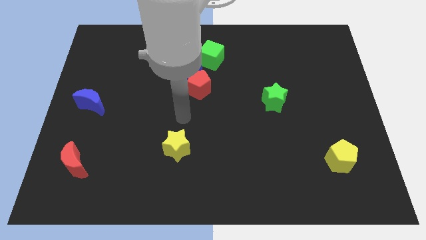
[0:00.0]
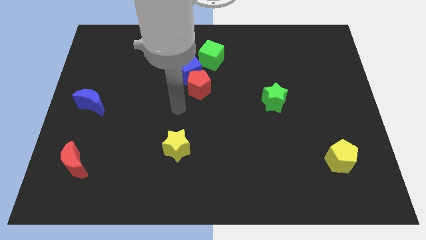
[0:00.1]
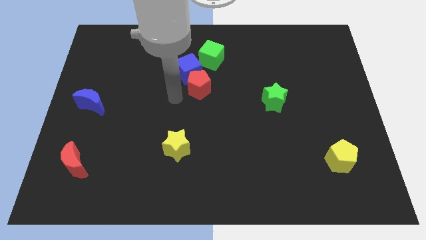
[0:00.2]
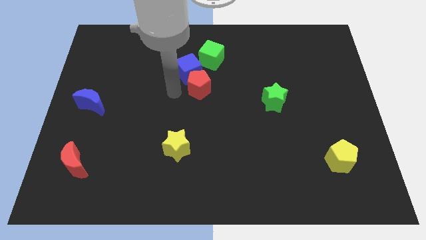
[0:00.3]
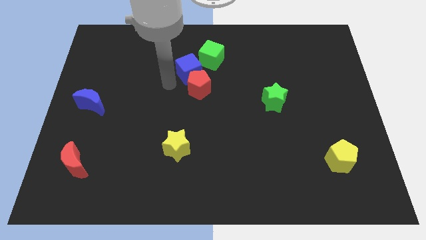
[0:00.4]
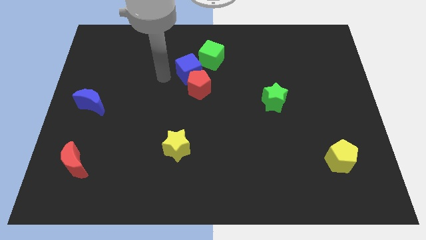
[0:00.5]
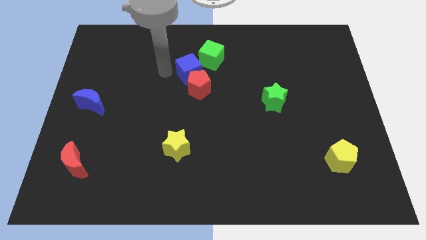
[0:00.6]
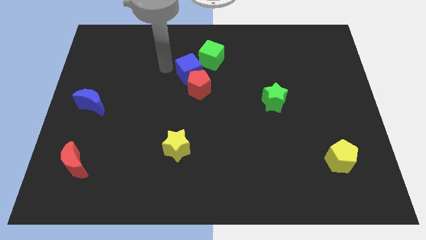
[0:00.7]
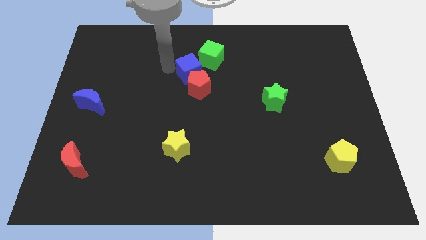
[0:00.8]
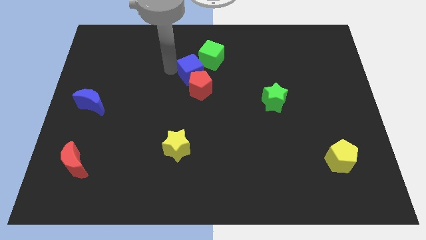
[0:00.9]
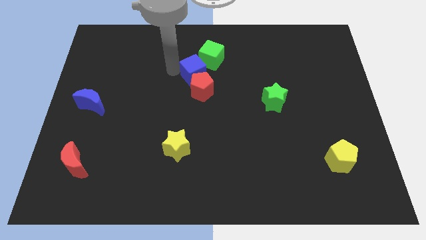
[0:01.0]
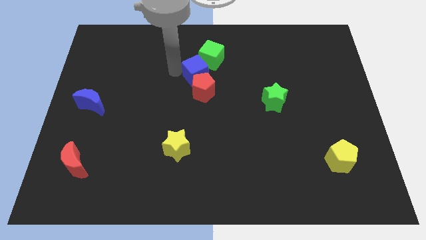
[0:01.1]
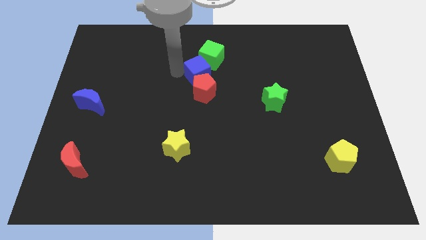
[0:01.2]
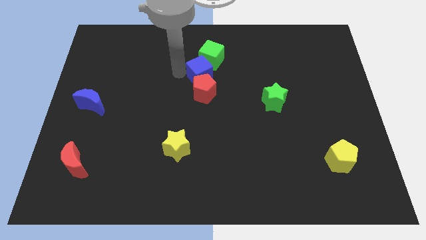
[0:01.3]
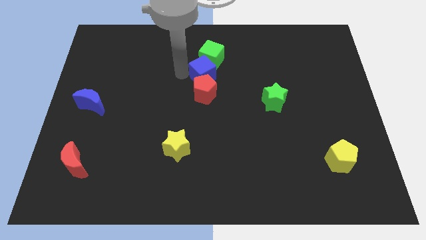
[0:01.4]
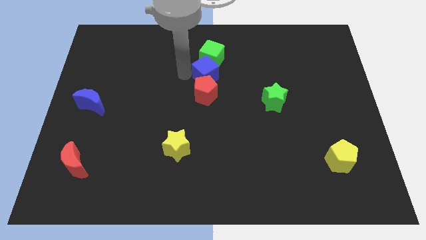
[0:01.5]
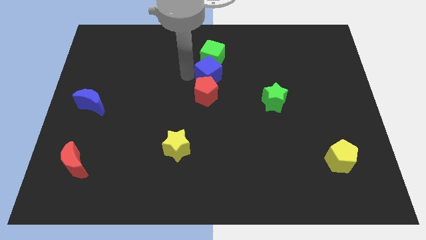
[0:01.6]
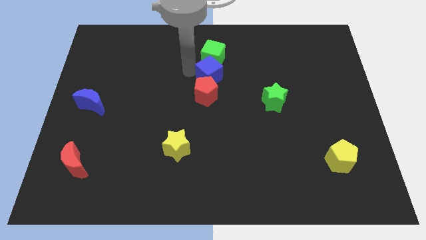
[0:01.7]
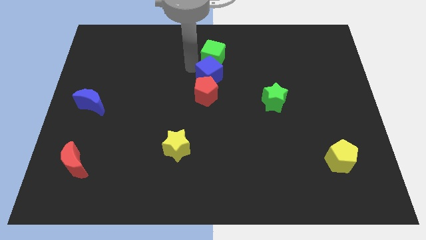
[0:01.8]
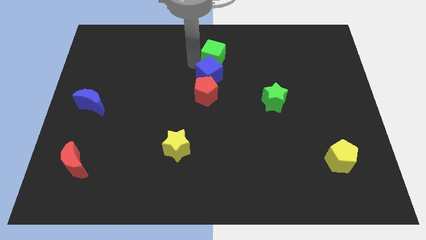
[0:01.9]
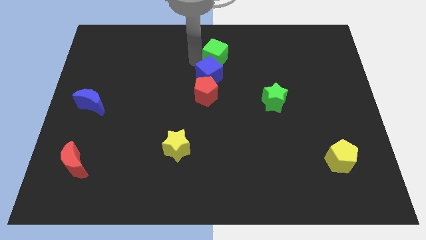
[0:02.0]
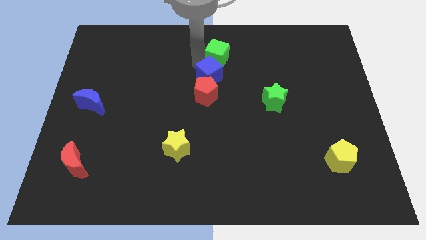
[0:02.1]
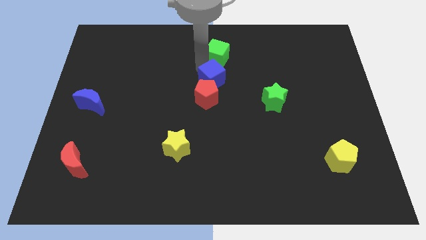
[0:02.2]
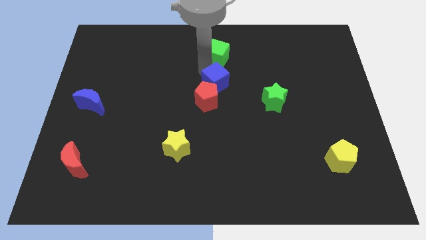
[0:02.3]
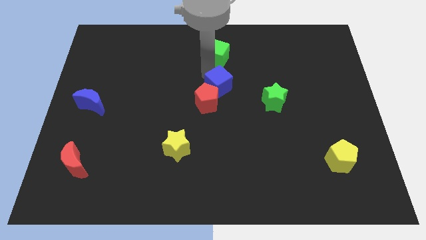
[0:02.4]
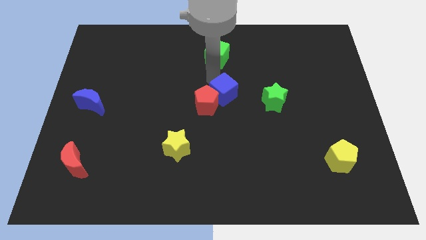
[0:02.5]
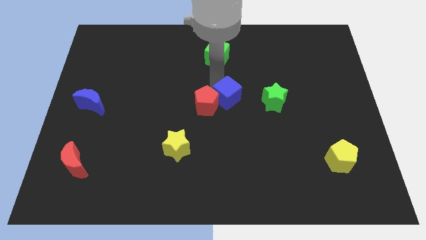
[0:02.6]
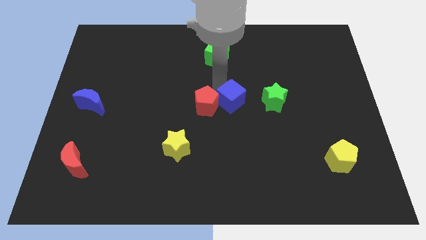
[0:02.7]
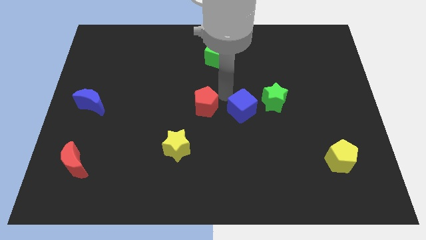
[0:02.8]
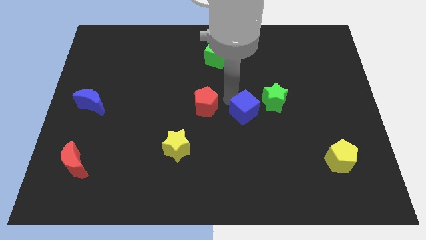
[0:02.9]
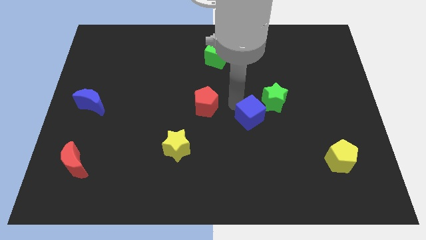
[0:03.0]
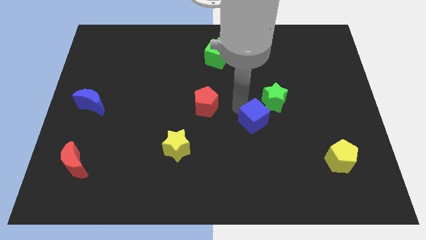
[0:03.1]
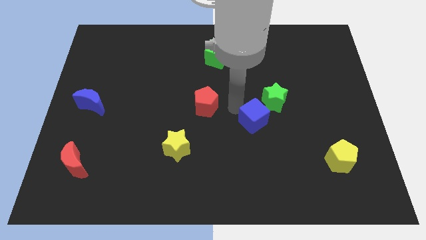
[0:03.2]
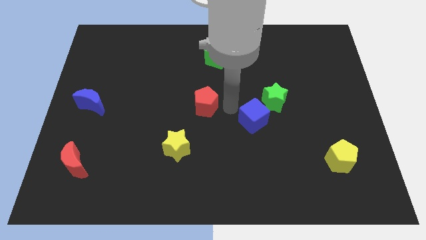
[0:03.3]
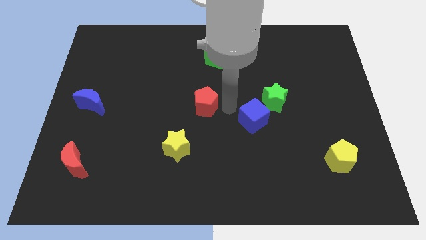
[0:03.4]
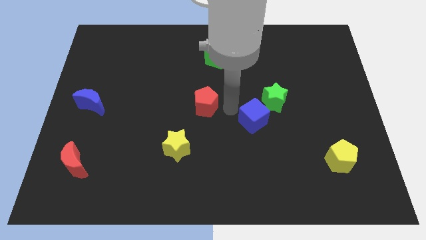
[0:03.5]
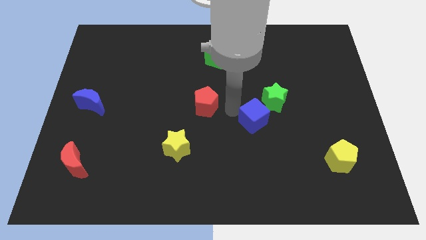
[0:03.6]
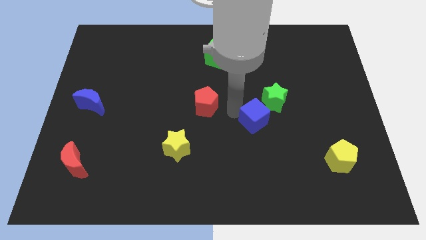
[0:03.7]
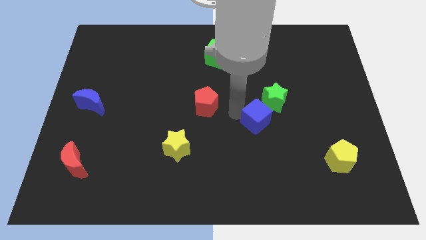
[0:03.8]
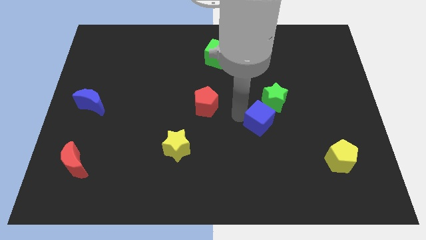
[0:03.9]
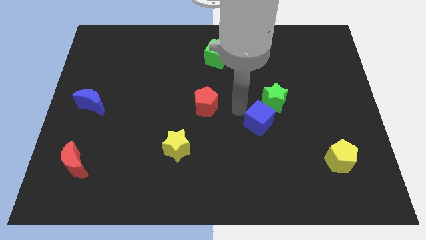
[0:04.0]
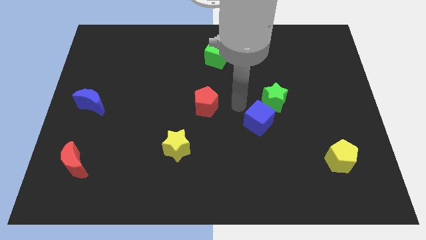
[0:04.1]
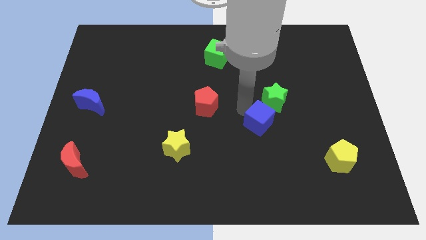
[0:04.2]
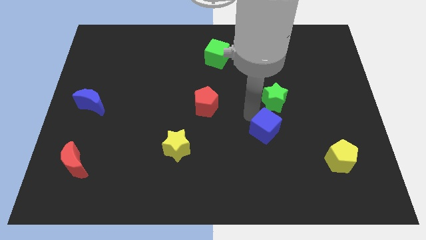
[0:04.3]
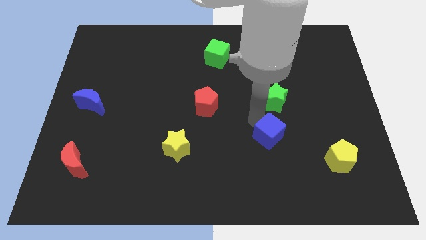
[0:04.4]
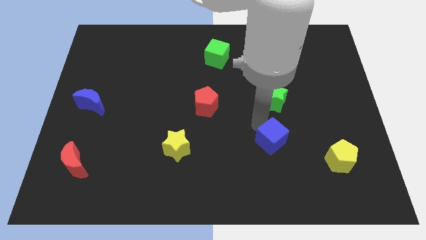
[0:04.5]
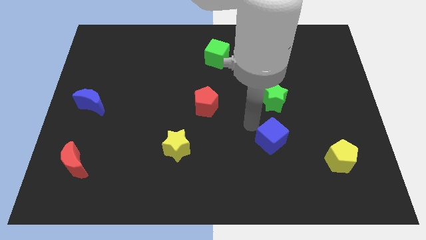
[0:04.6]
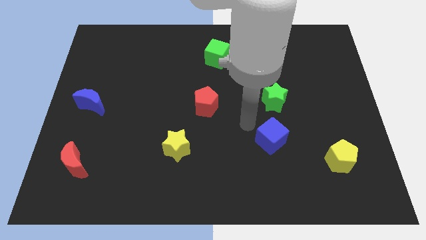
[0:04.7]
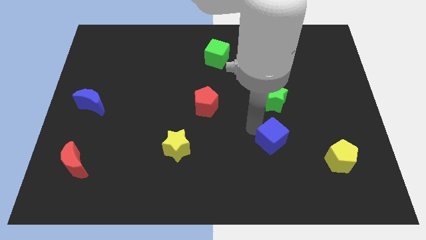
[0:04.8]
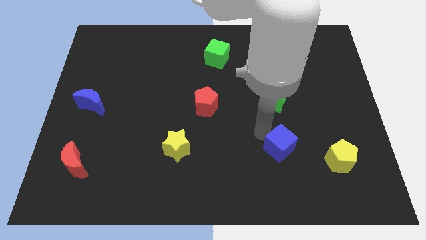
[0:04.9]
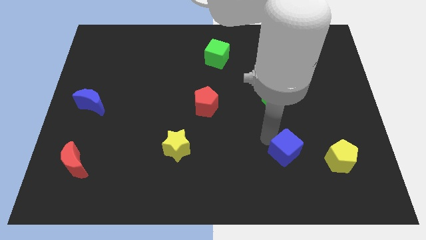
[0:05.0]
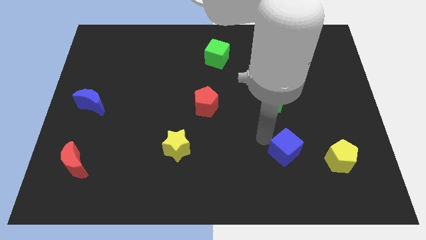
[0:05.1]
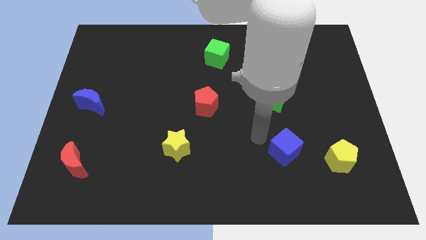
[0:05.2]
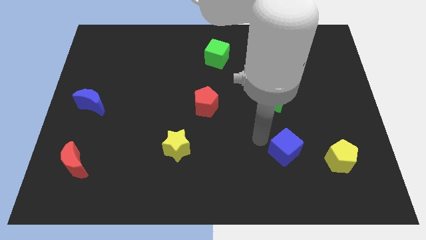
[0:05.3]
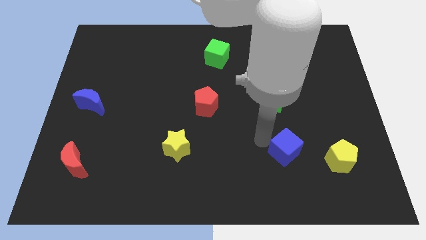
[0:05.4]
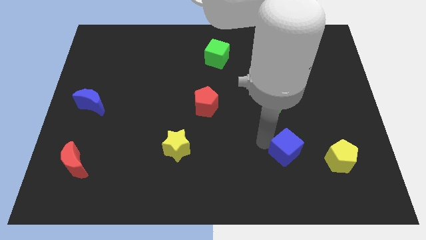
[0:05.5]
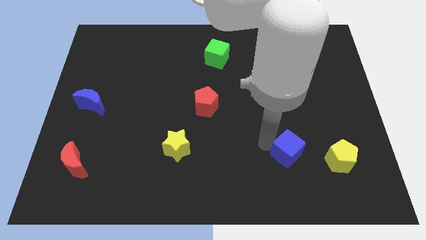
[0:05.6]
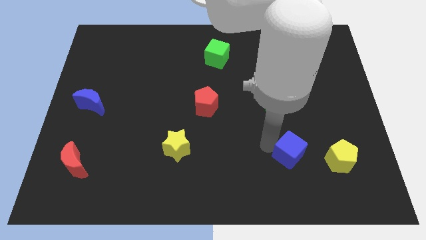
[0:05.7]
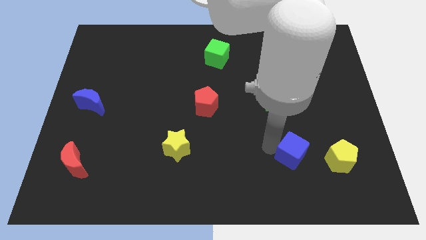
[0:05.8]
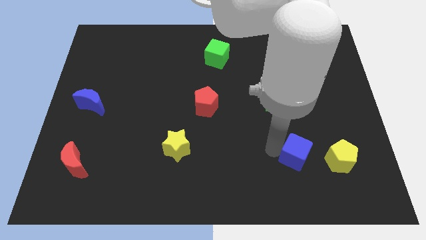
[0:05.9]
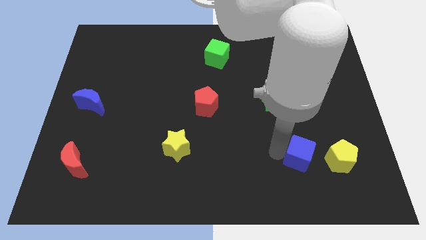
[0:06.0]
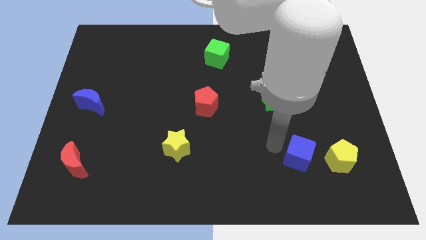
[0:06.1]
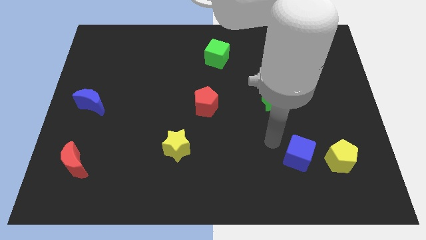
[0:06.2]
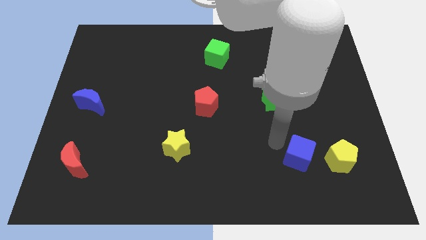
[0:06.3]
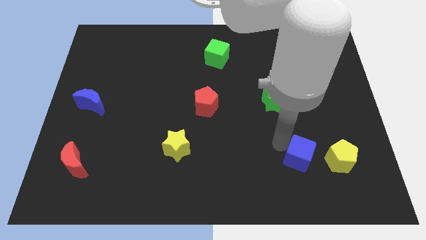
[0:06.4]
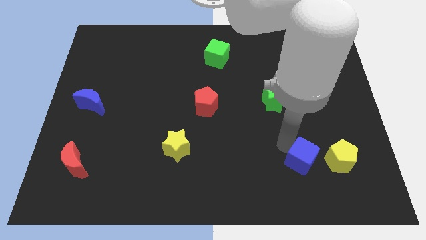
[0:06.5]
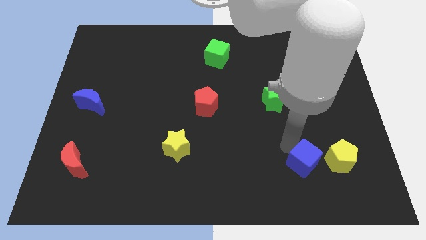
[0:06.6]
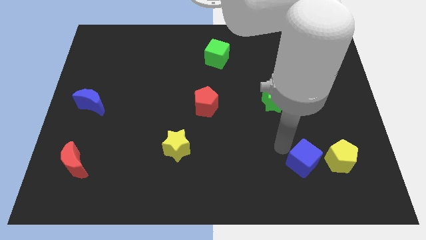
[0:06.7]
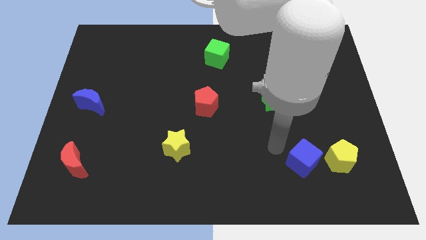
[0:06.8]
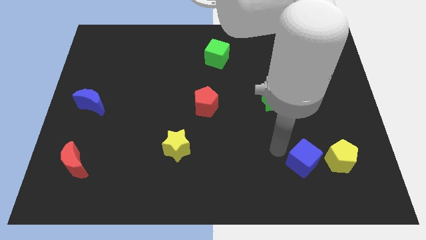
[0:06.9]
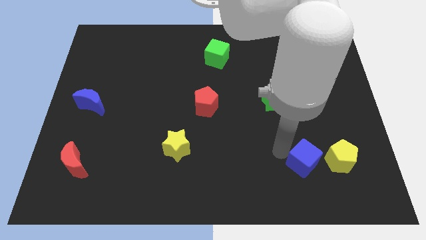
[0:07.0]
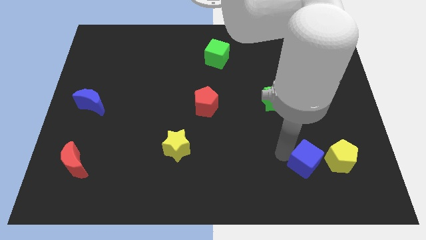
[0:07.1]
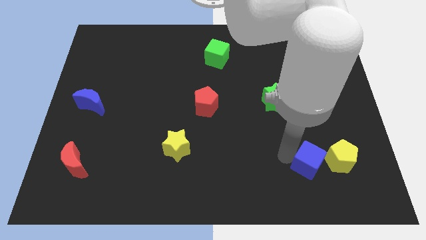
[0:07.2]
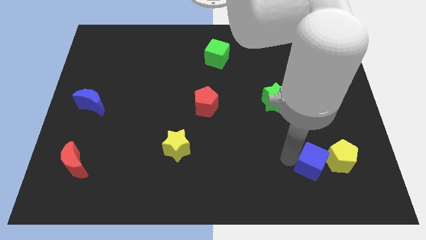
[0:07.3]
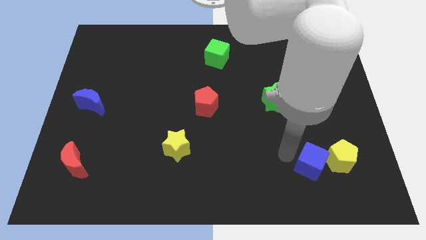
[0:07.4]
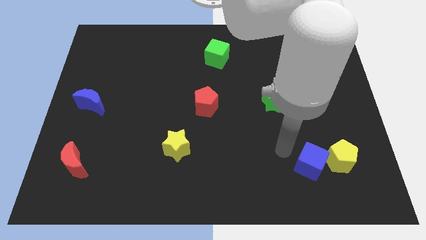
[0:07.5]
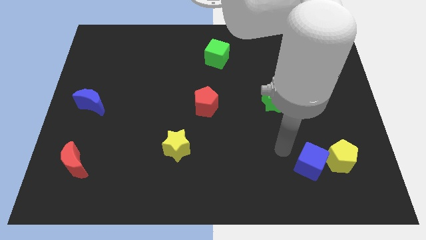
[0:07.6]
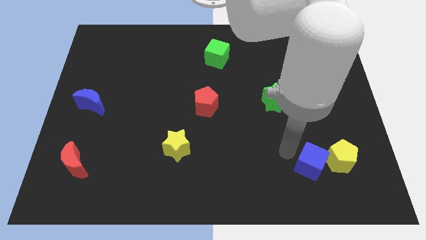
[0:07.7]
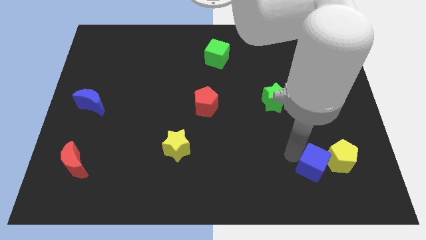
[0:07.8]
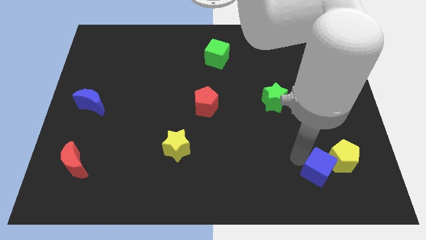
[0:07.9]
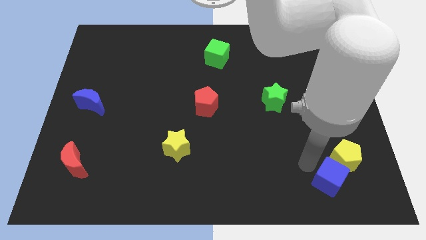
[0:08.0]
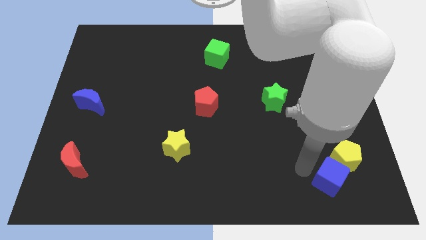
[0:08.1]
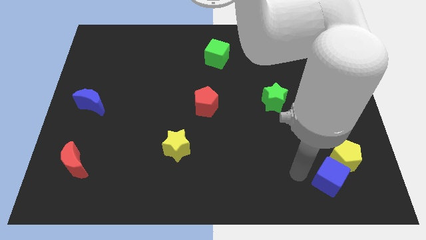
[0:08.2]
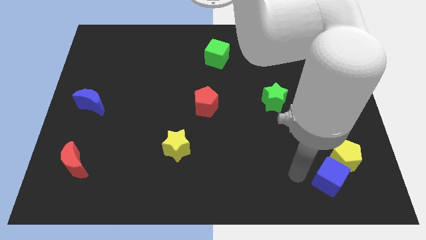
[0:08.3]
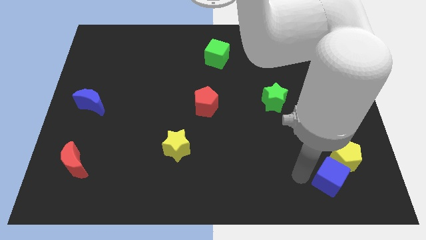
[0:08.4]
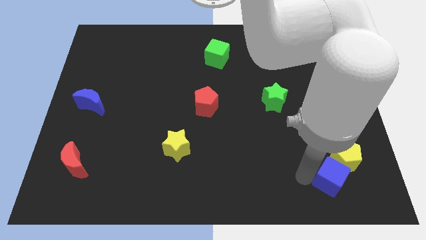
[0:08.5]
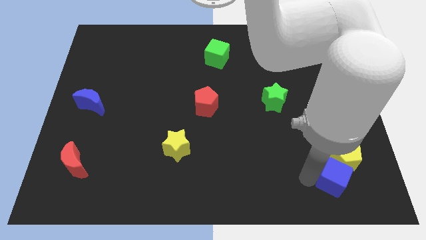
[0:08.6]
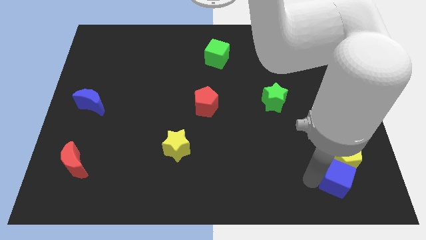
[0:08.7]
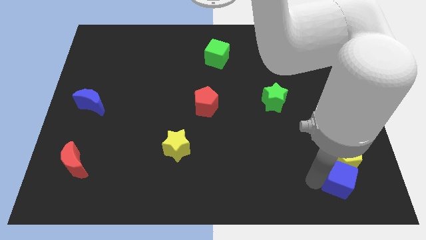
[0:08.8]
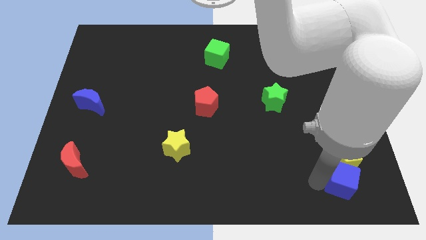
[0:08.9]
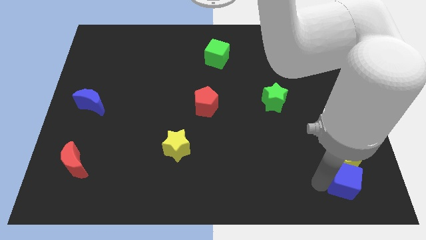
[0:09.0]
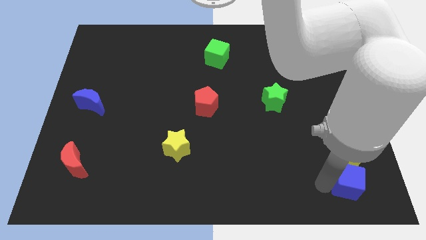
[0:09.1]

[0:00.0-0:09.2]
put the blue cube to the bottom right corner
